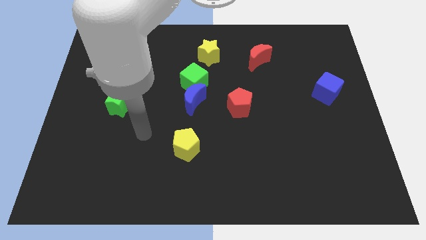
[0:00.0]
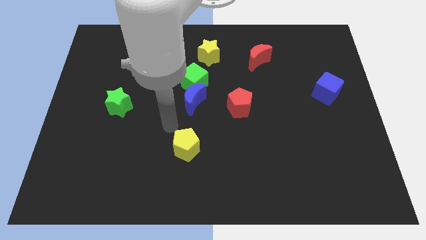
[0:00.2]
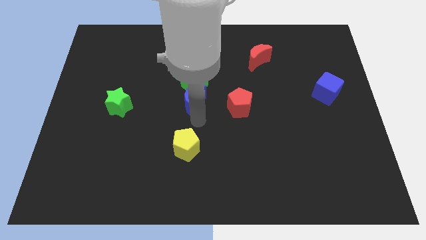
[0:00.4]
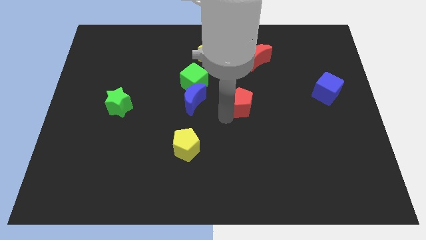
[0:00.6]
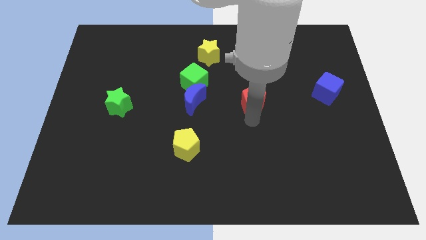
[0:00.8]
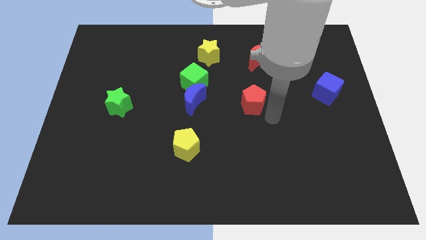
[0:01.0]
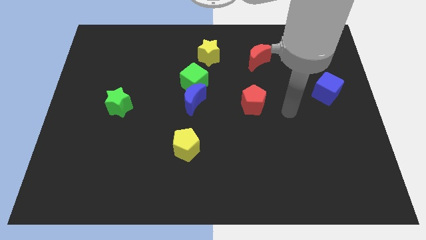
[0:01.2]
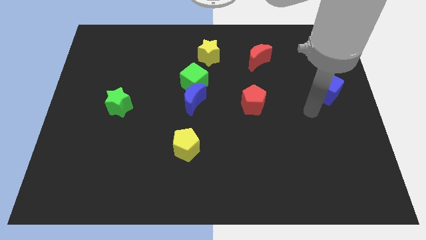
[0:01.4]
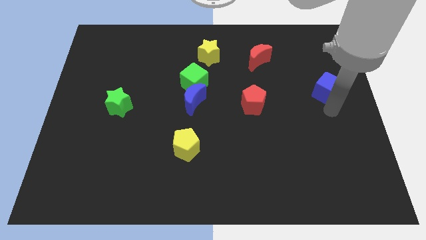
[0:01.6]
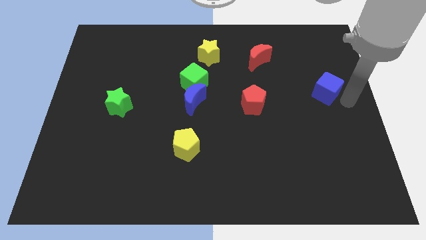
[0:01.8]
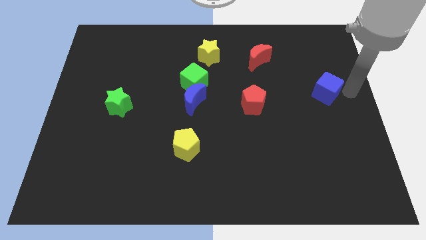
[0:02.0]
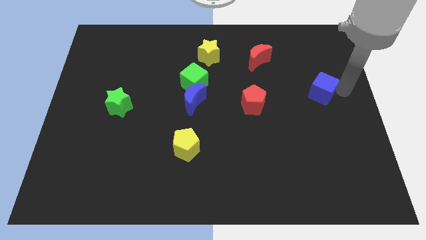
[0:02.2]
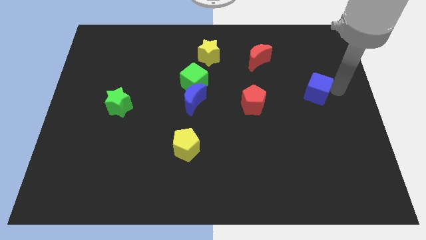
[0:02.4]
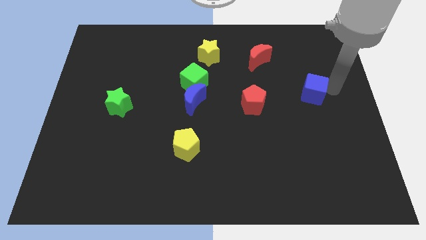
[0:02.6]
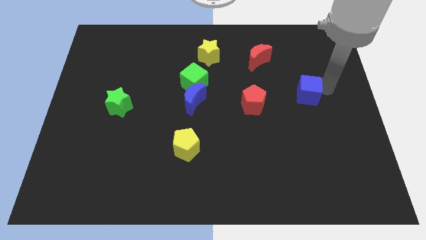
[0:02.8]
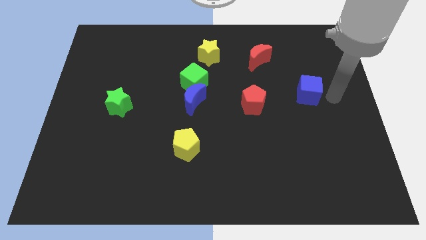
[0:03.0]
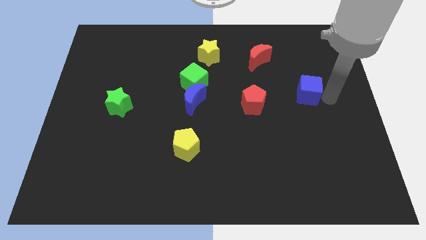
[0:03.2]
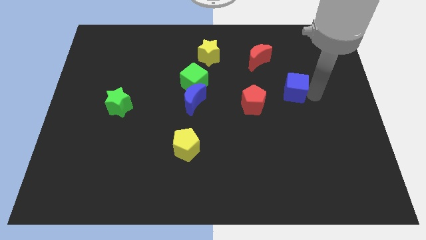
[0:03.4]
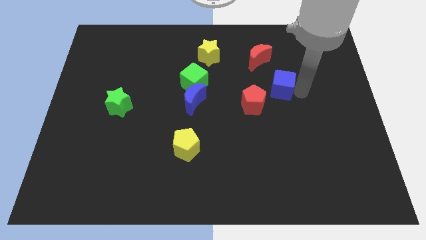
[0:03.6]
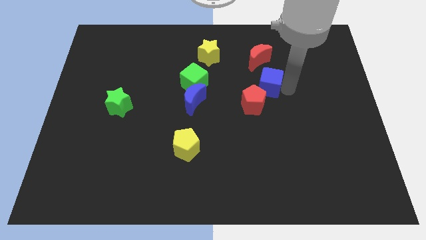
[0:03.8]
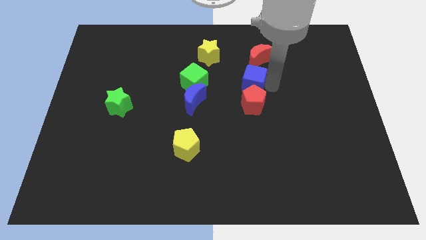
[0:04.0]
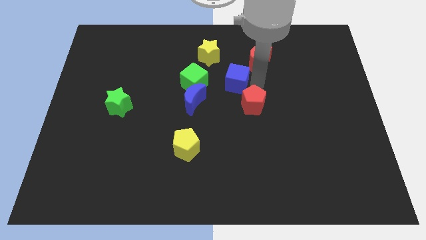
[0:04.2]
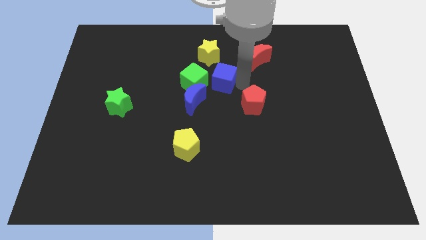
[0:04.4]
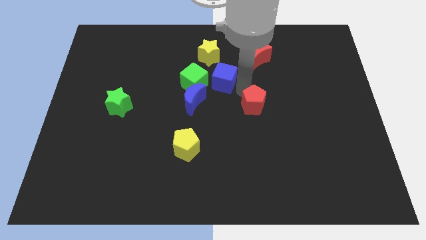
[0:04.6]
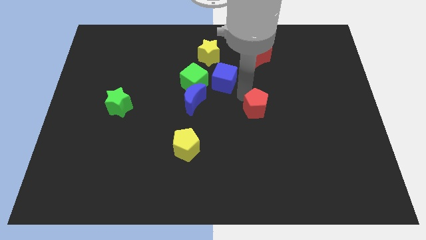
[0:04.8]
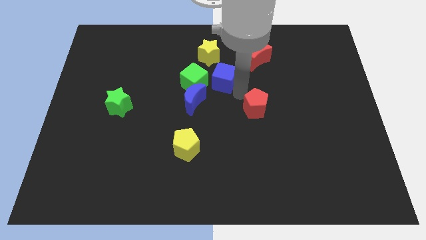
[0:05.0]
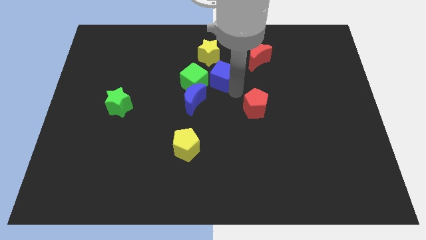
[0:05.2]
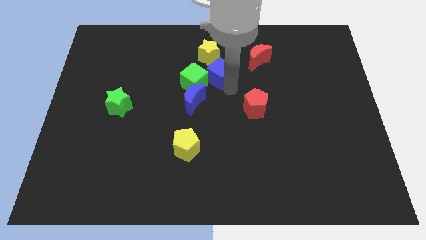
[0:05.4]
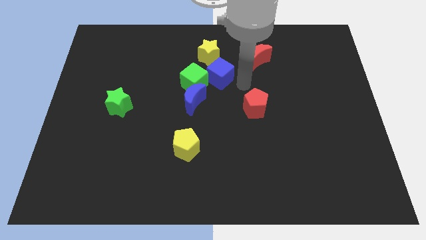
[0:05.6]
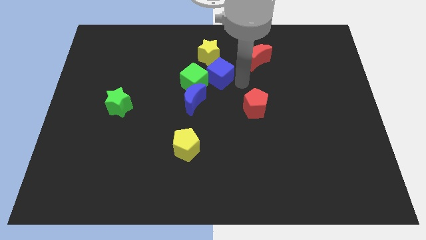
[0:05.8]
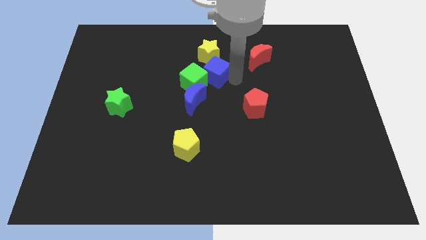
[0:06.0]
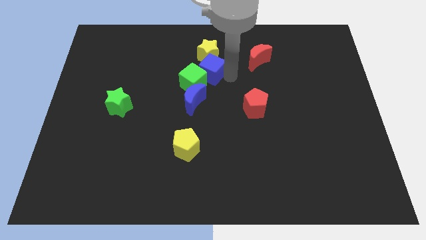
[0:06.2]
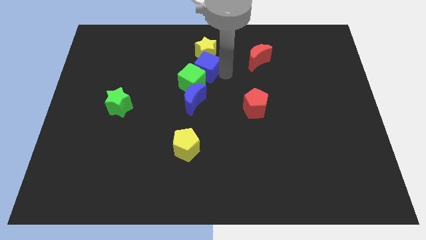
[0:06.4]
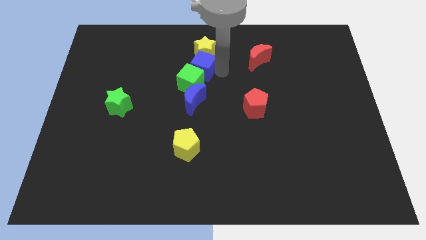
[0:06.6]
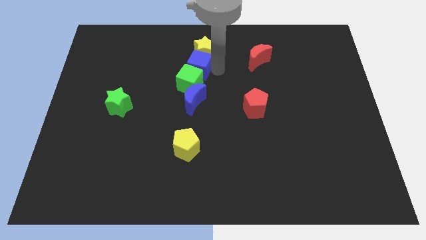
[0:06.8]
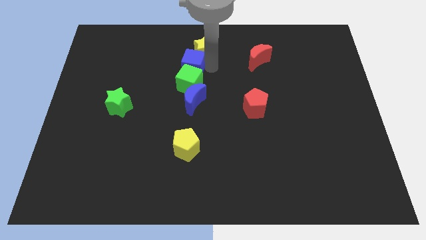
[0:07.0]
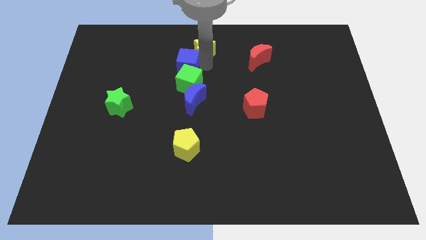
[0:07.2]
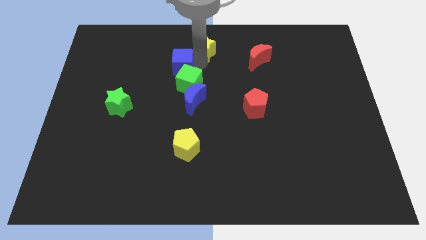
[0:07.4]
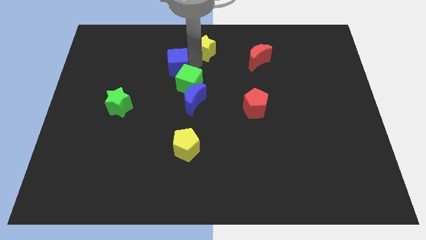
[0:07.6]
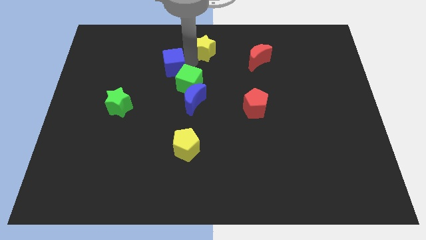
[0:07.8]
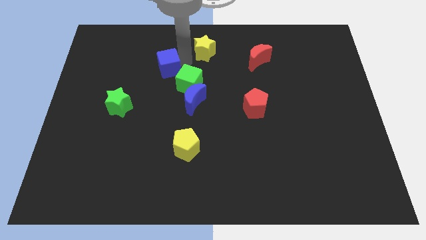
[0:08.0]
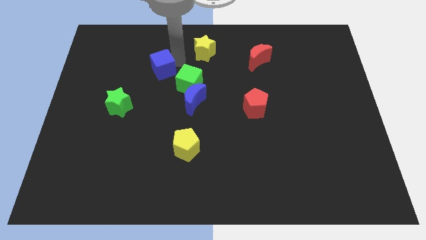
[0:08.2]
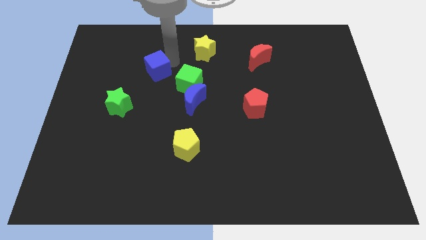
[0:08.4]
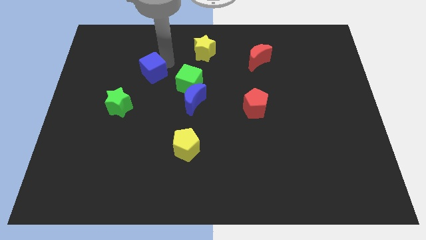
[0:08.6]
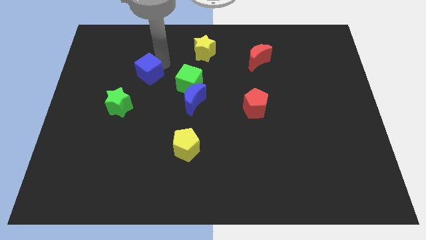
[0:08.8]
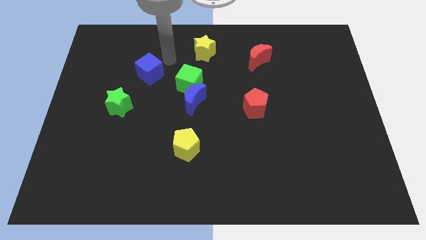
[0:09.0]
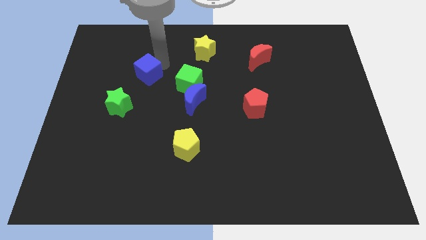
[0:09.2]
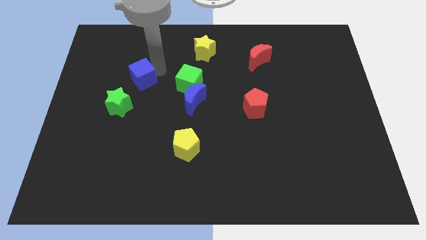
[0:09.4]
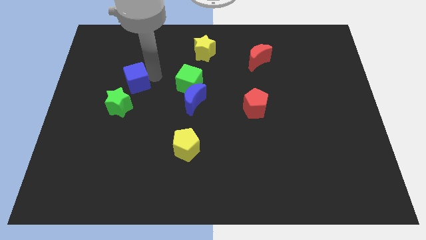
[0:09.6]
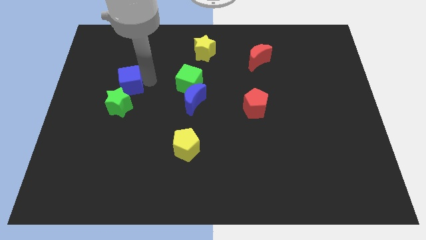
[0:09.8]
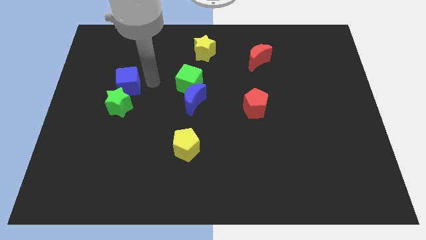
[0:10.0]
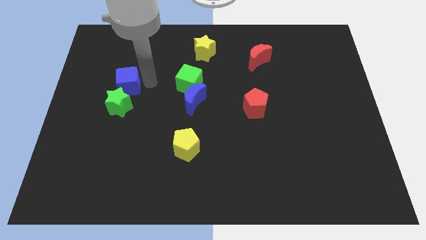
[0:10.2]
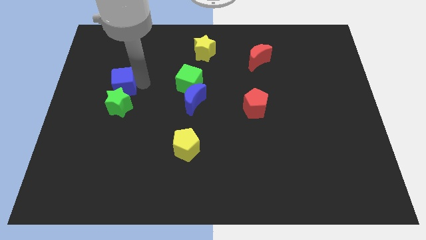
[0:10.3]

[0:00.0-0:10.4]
put the blue cube diagonally up and to the left of the green star

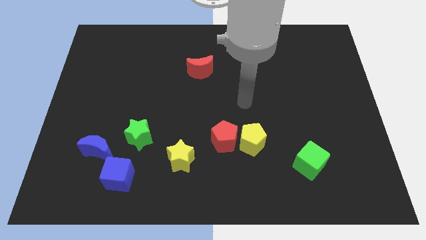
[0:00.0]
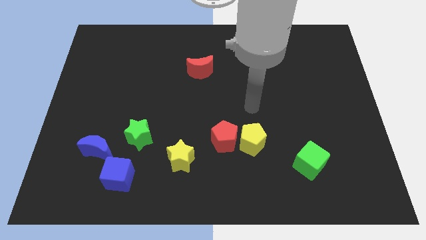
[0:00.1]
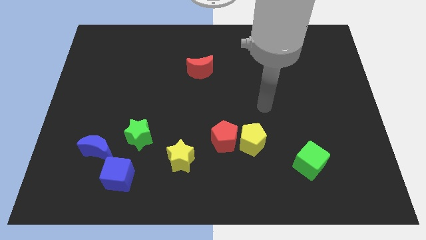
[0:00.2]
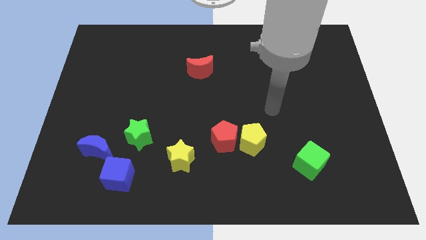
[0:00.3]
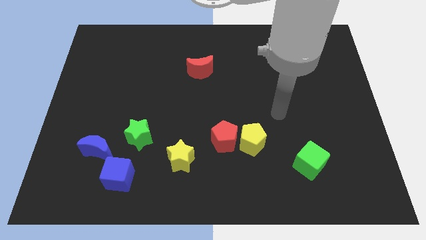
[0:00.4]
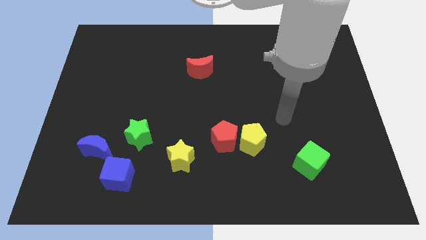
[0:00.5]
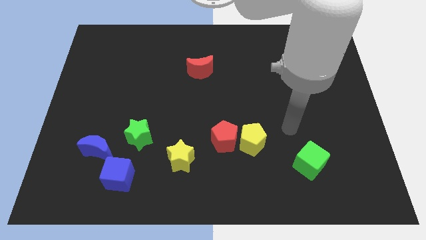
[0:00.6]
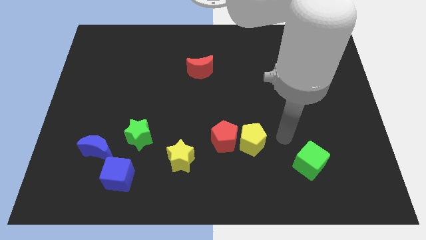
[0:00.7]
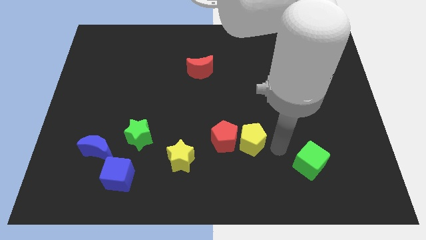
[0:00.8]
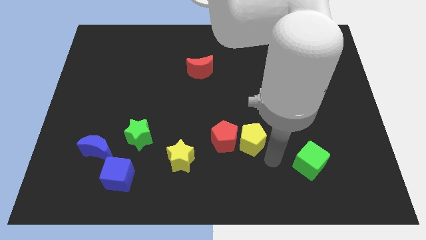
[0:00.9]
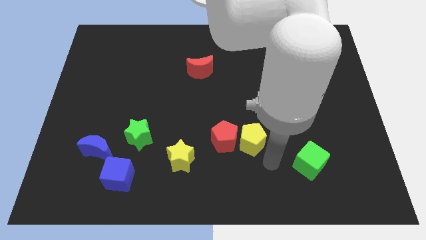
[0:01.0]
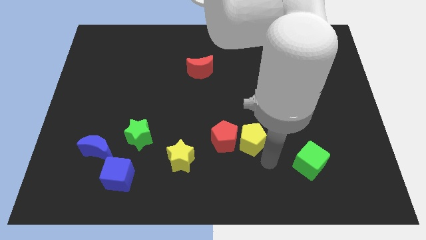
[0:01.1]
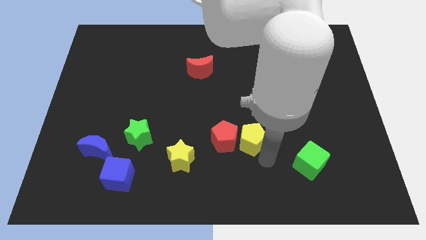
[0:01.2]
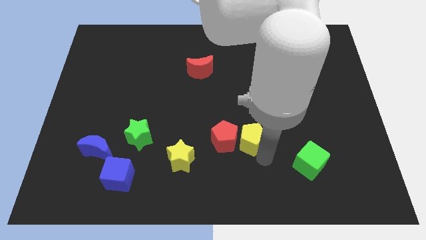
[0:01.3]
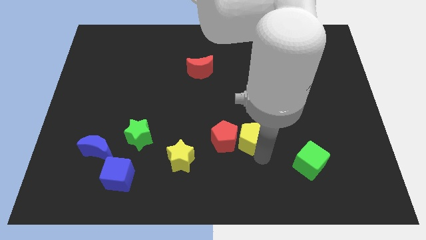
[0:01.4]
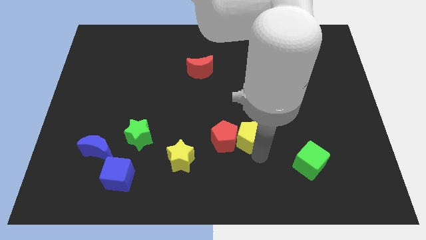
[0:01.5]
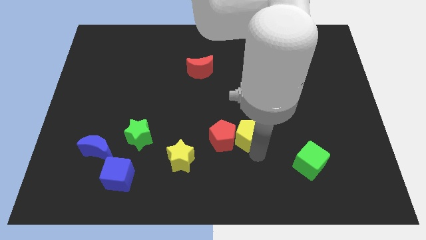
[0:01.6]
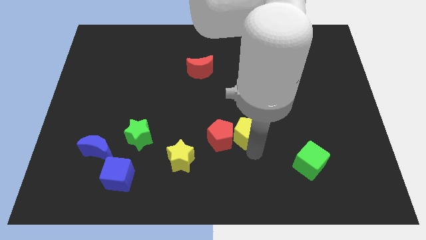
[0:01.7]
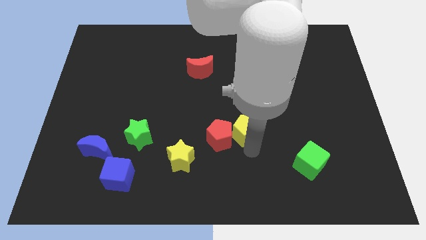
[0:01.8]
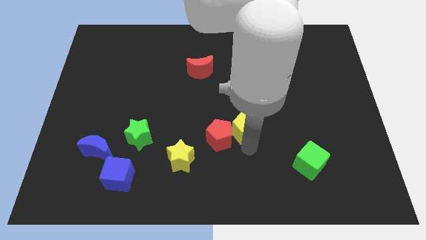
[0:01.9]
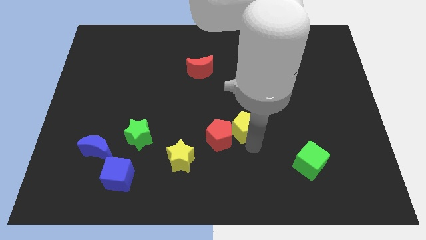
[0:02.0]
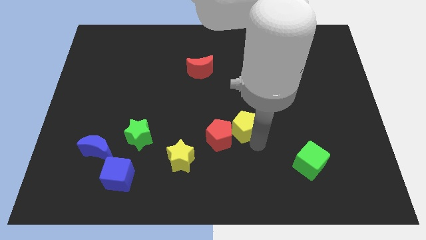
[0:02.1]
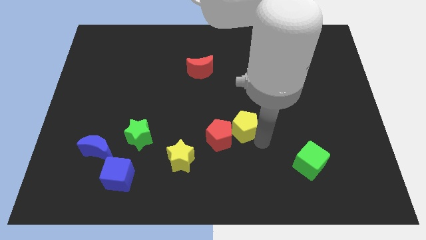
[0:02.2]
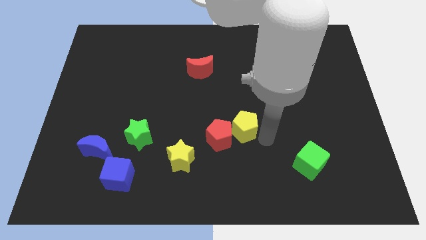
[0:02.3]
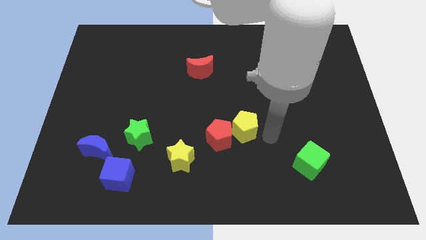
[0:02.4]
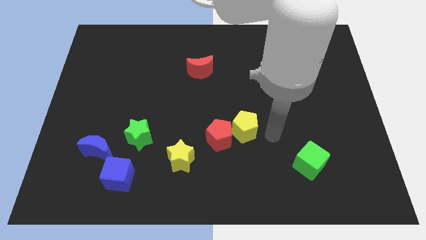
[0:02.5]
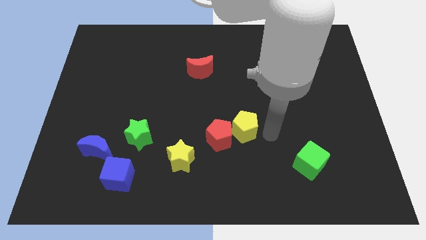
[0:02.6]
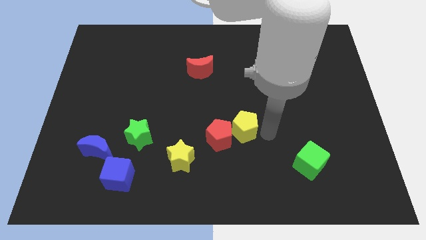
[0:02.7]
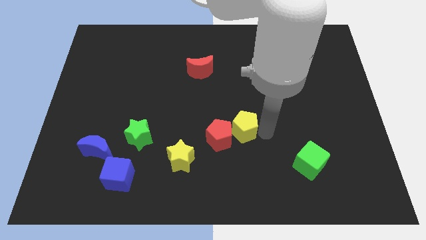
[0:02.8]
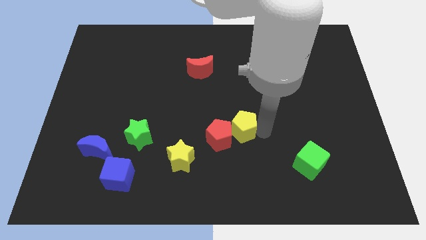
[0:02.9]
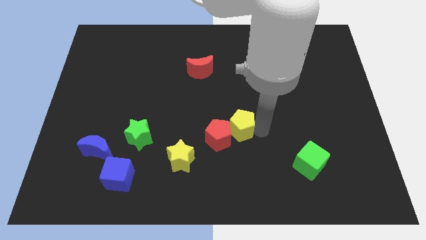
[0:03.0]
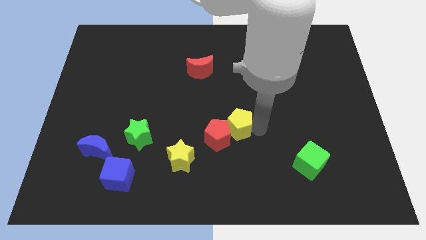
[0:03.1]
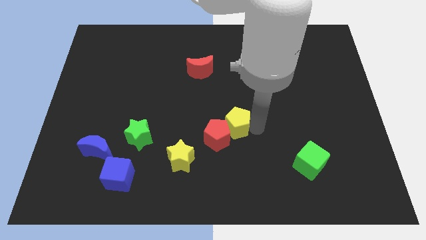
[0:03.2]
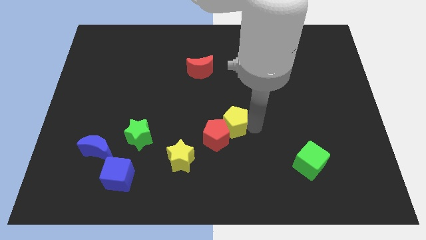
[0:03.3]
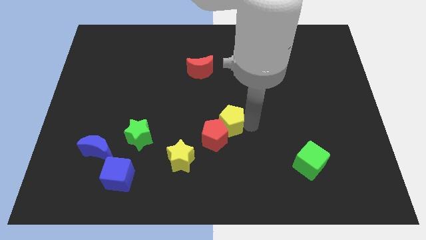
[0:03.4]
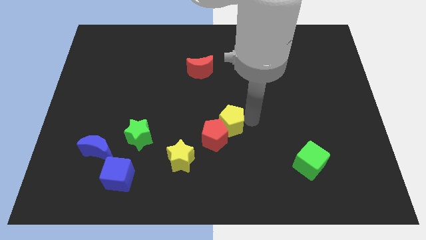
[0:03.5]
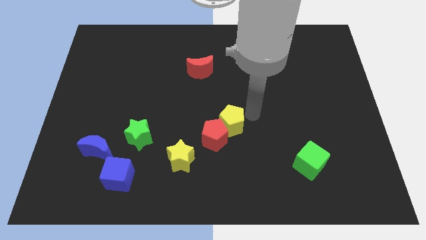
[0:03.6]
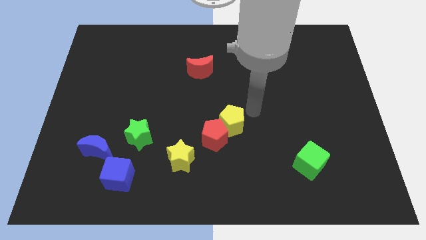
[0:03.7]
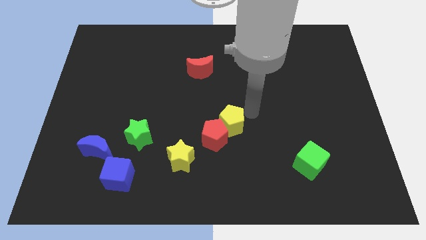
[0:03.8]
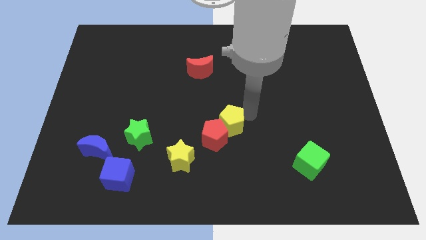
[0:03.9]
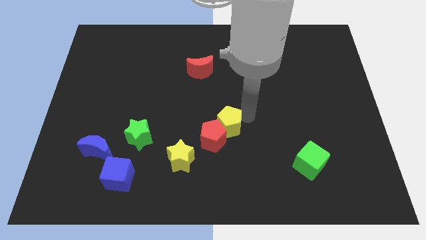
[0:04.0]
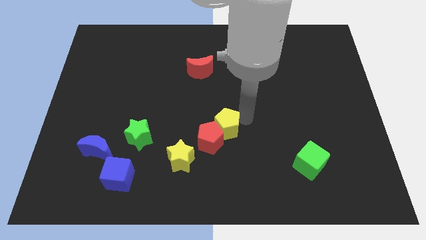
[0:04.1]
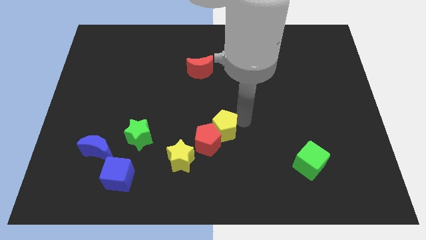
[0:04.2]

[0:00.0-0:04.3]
slide the yellow pentagon to the top right side of the yellow star
